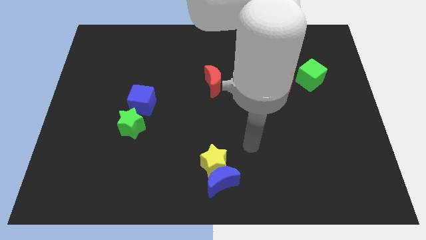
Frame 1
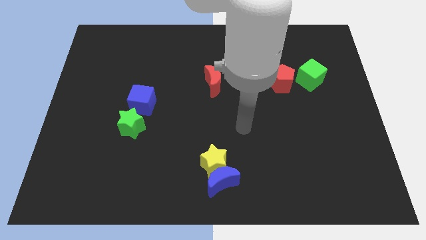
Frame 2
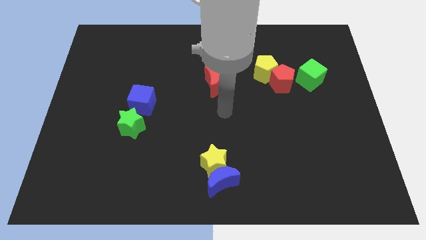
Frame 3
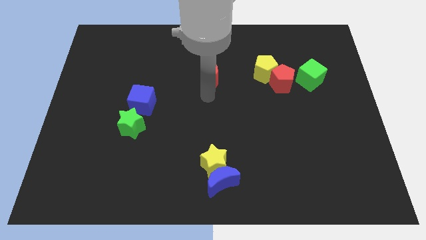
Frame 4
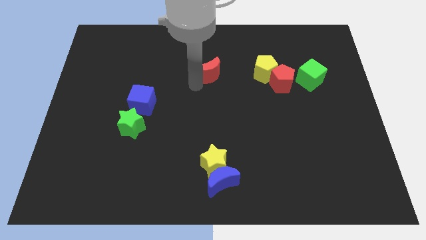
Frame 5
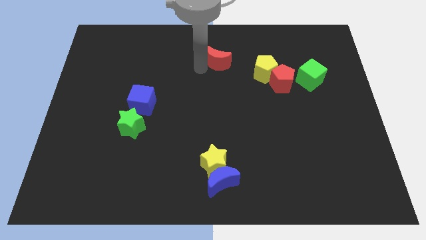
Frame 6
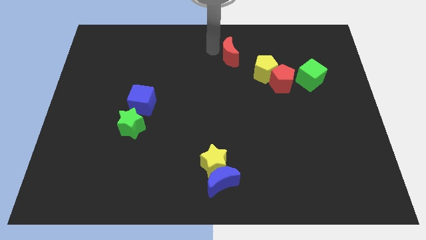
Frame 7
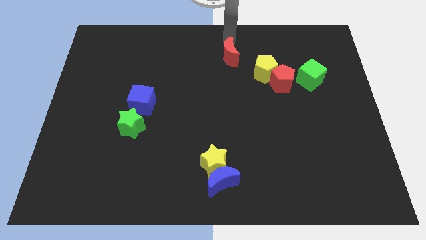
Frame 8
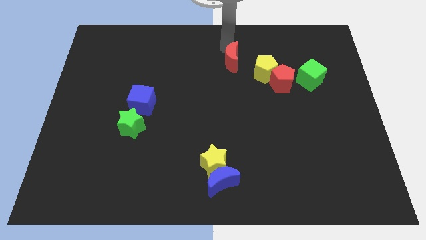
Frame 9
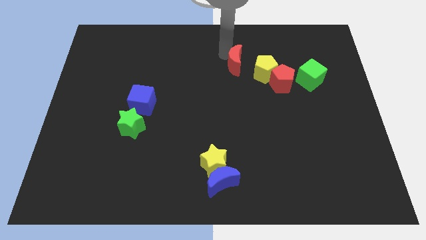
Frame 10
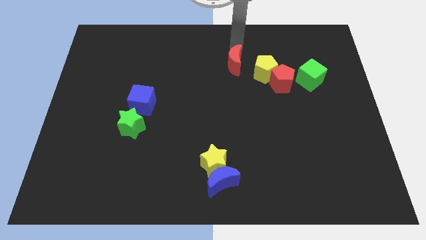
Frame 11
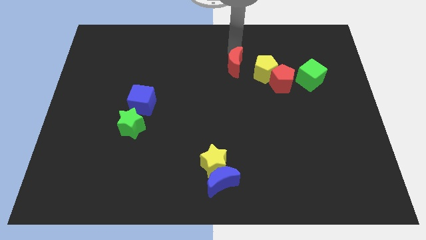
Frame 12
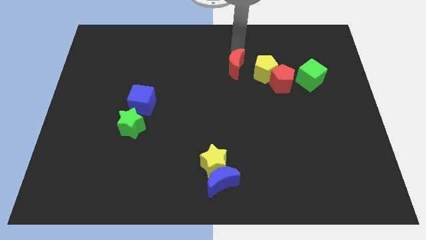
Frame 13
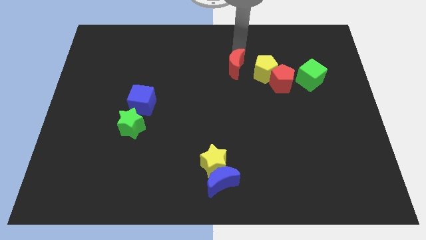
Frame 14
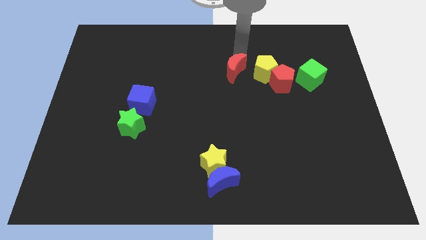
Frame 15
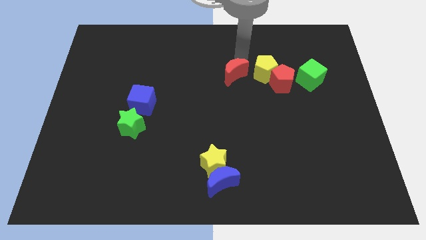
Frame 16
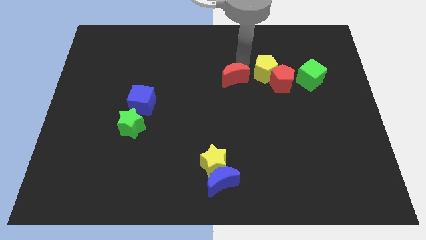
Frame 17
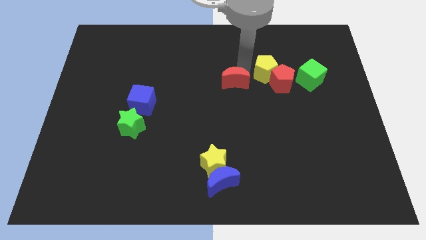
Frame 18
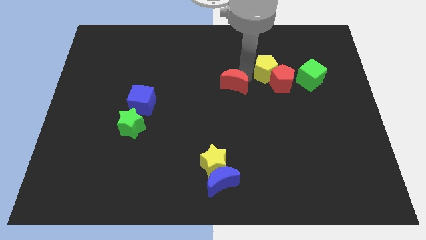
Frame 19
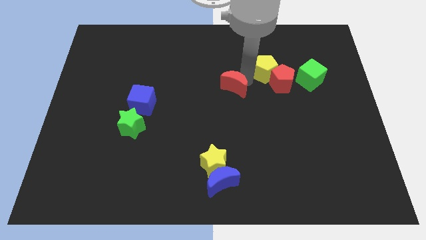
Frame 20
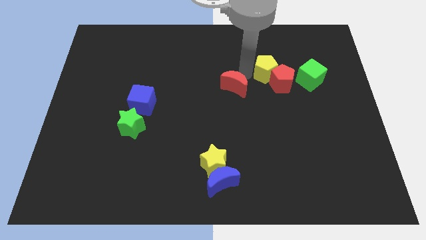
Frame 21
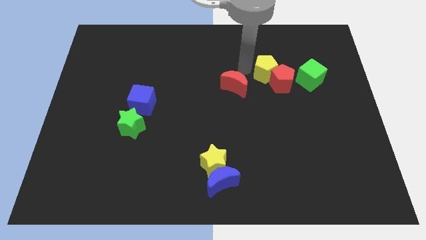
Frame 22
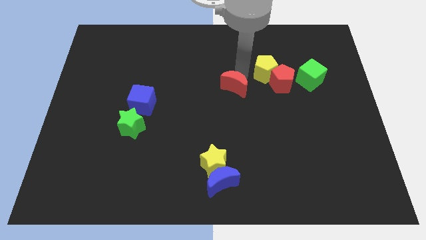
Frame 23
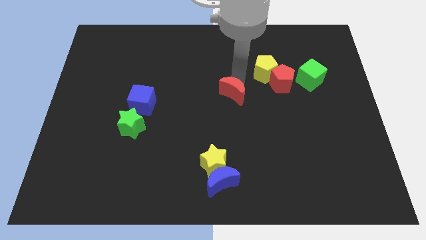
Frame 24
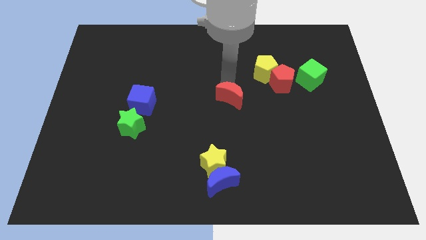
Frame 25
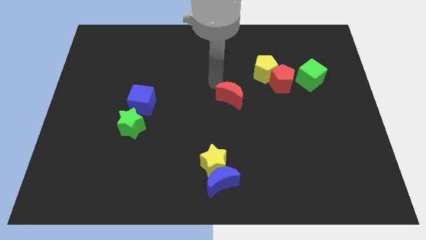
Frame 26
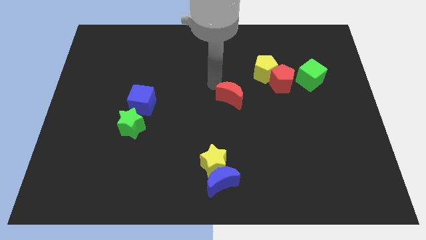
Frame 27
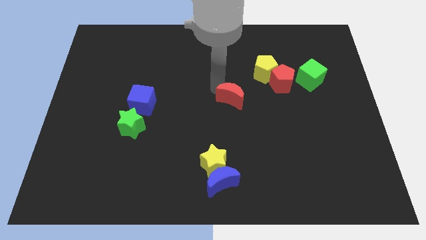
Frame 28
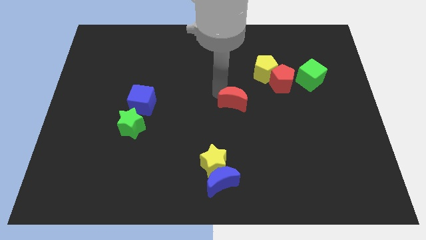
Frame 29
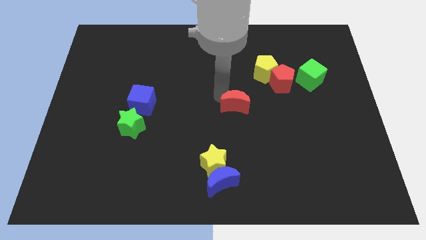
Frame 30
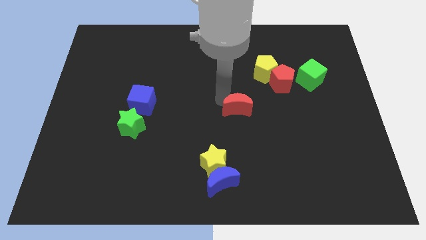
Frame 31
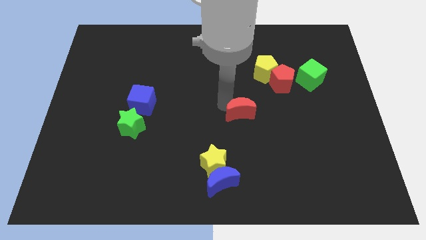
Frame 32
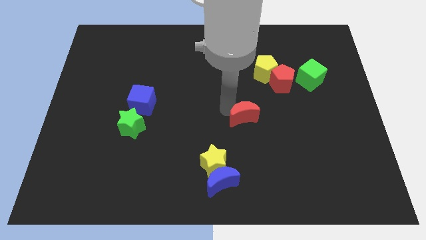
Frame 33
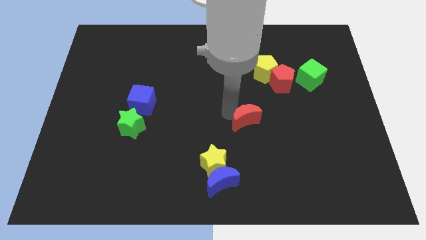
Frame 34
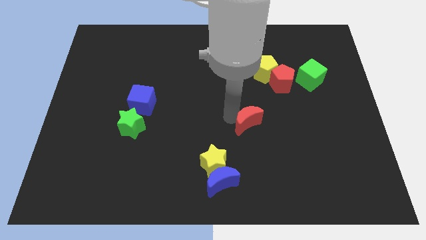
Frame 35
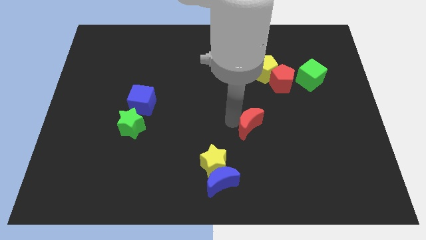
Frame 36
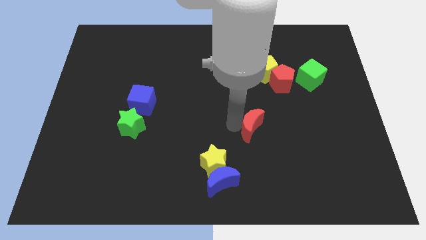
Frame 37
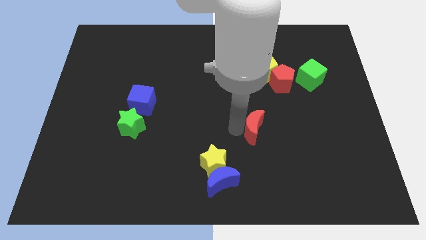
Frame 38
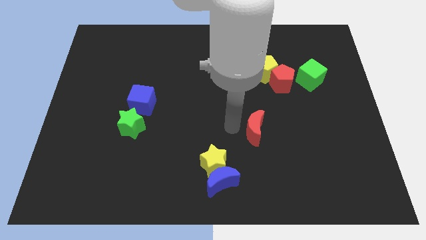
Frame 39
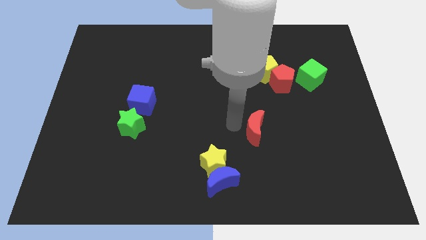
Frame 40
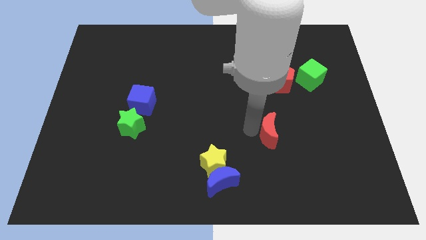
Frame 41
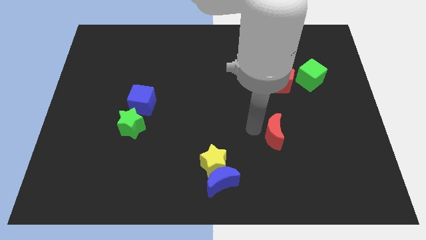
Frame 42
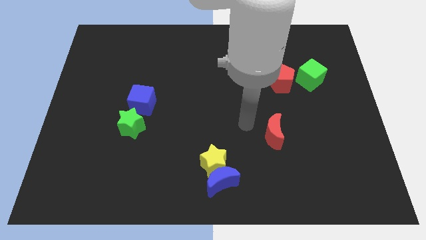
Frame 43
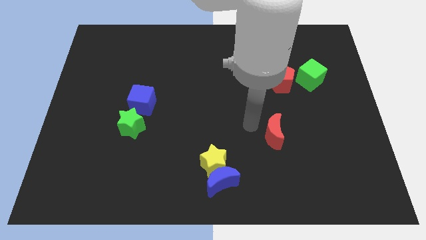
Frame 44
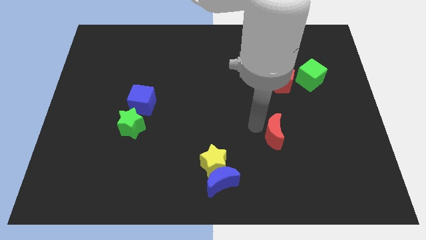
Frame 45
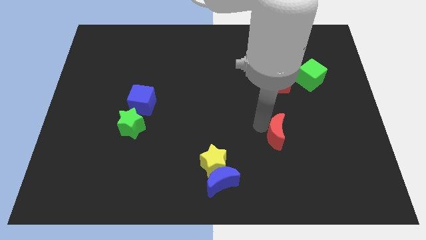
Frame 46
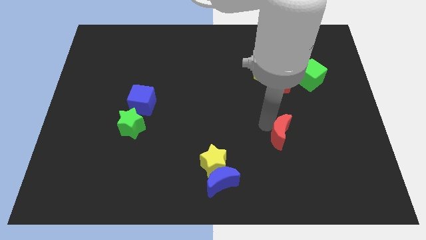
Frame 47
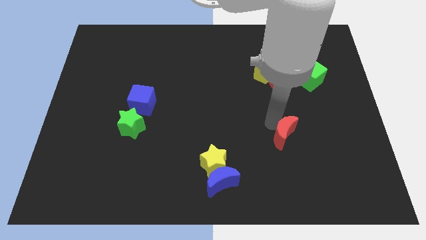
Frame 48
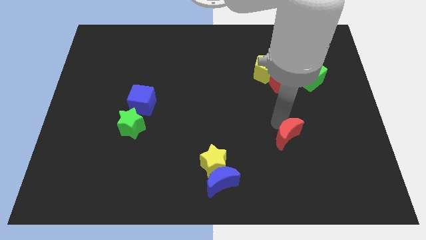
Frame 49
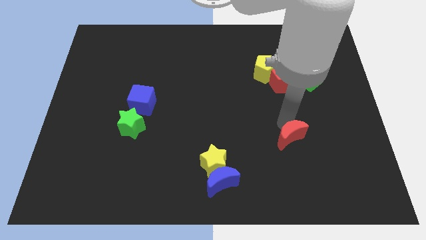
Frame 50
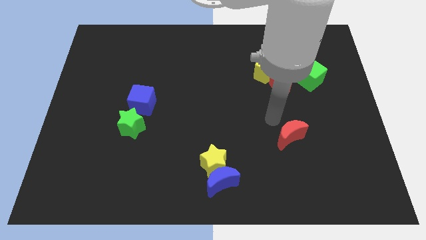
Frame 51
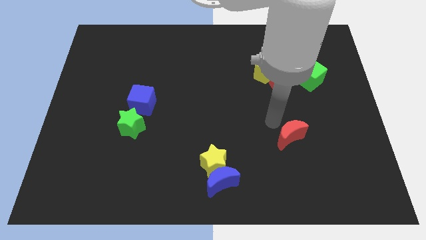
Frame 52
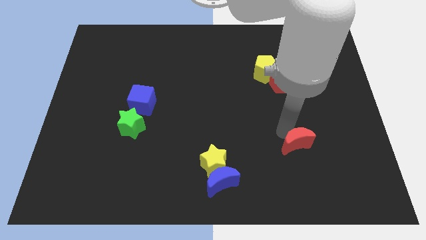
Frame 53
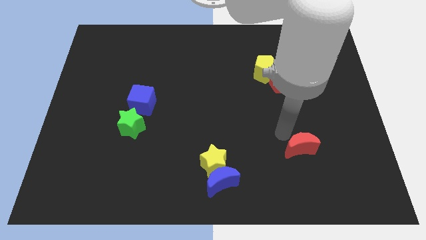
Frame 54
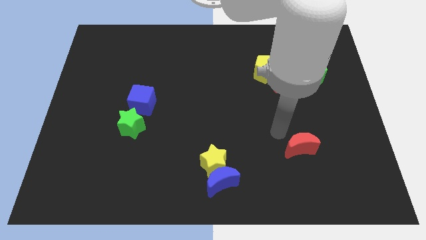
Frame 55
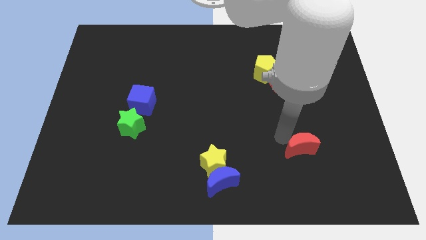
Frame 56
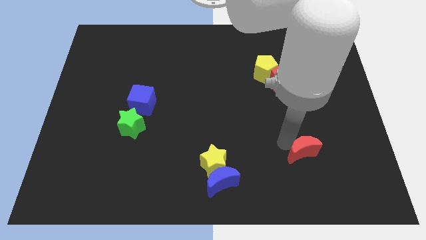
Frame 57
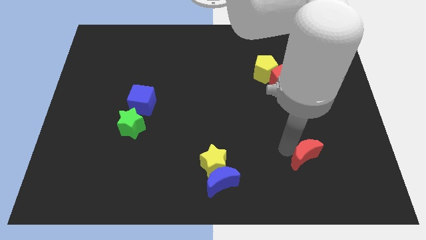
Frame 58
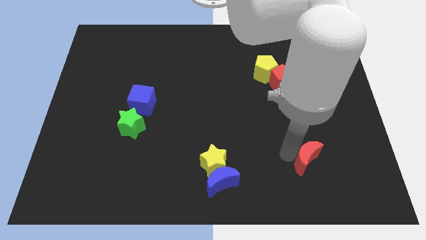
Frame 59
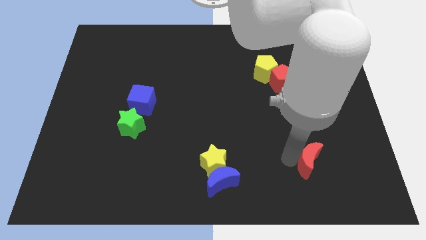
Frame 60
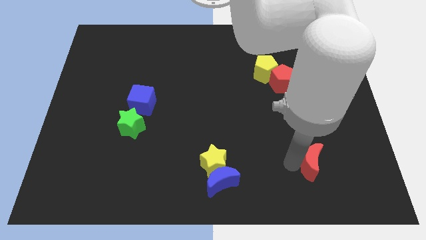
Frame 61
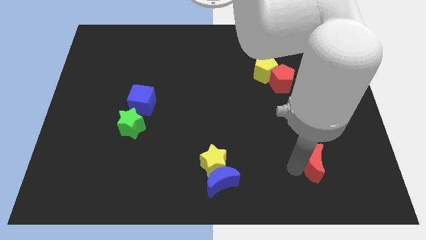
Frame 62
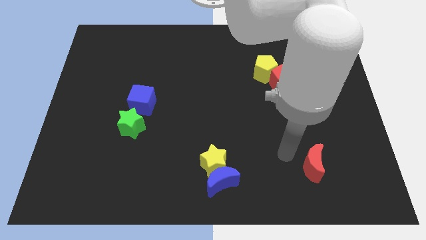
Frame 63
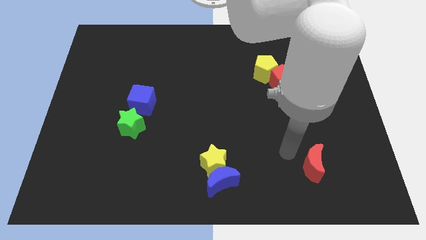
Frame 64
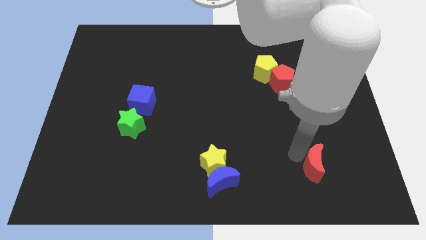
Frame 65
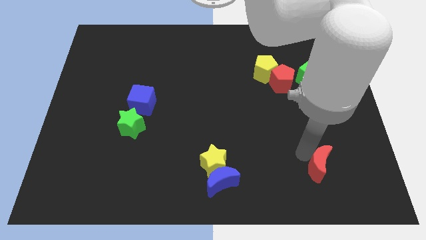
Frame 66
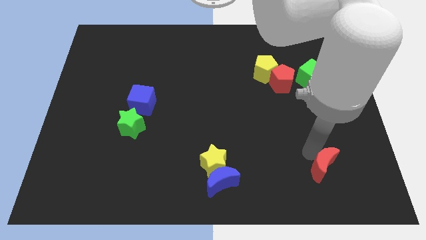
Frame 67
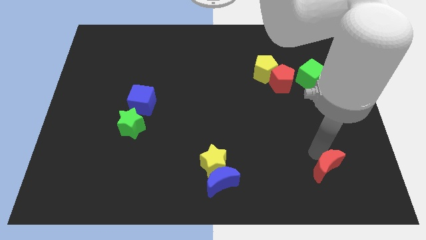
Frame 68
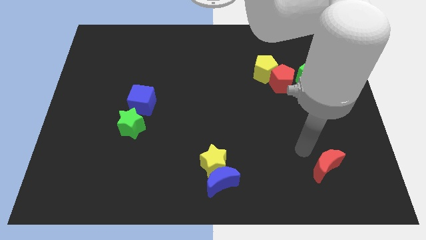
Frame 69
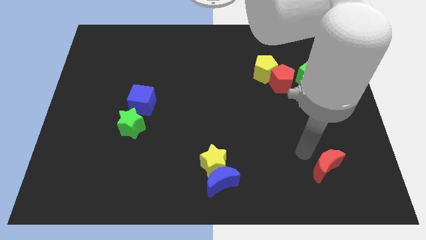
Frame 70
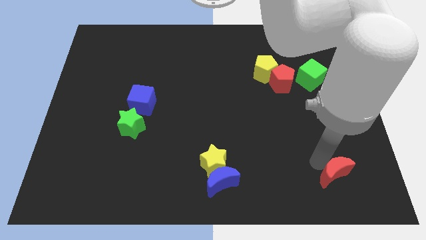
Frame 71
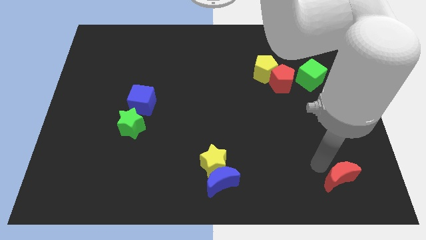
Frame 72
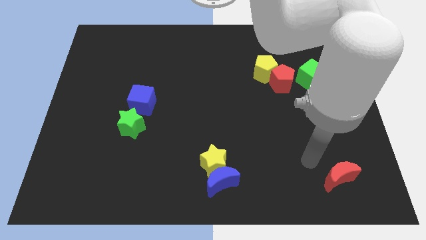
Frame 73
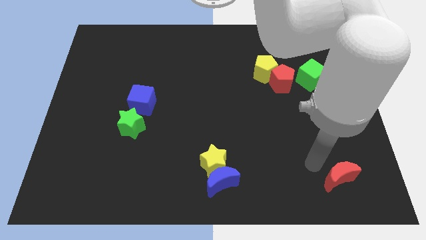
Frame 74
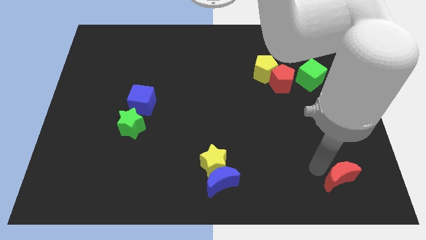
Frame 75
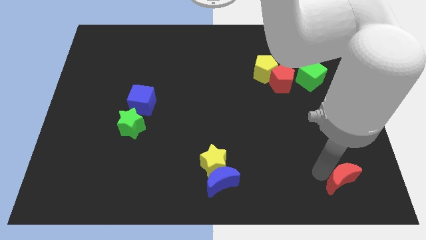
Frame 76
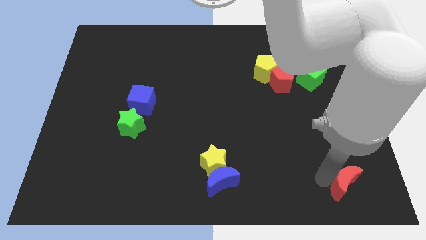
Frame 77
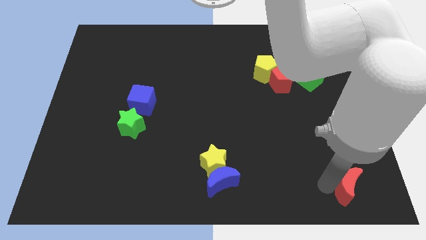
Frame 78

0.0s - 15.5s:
put the red moon to the lower right corner
